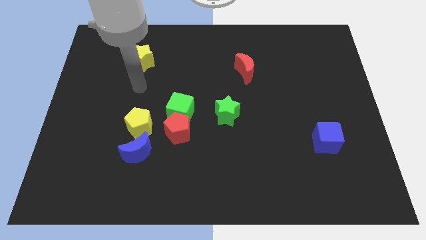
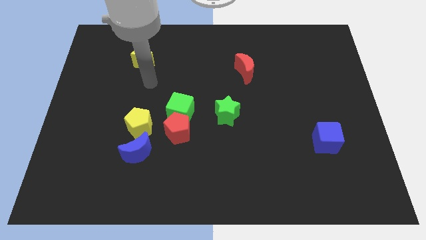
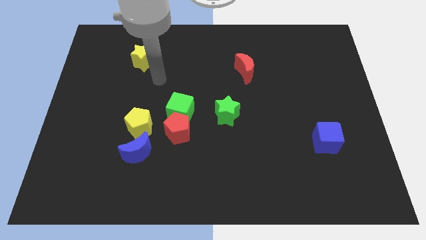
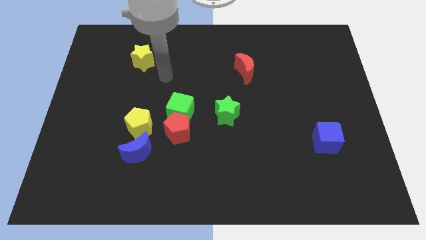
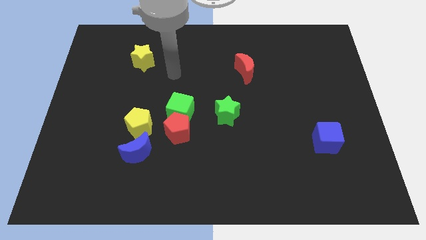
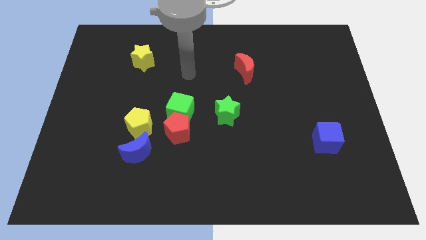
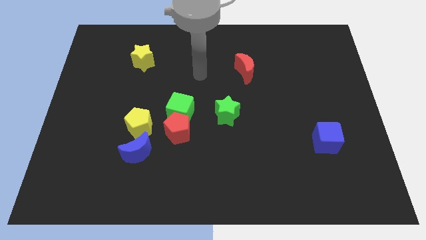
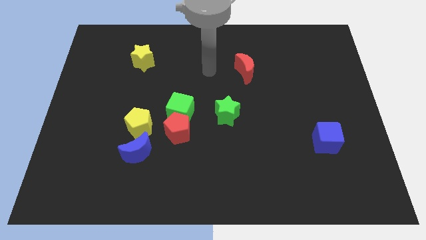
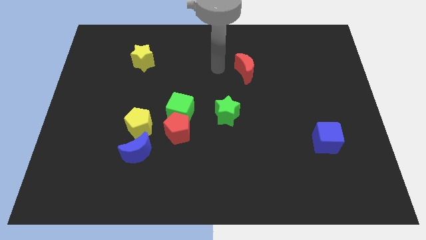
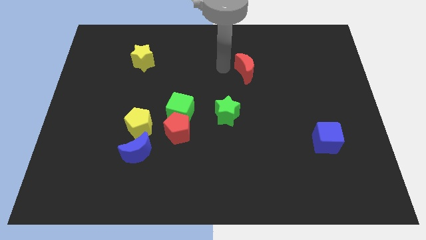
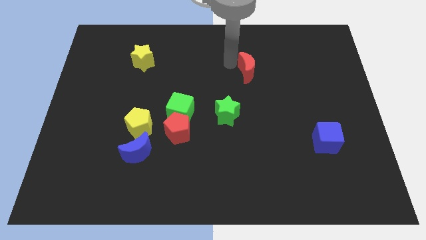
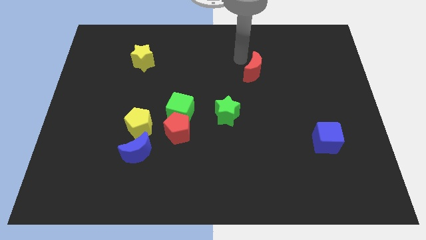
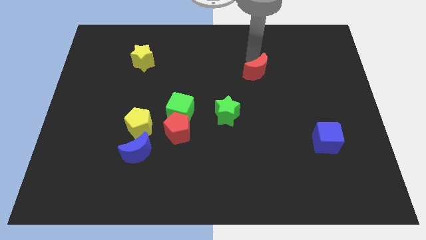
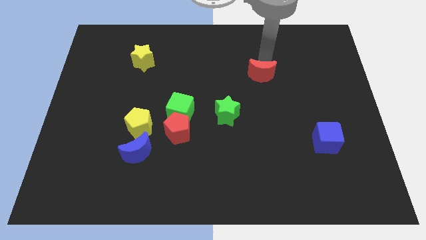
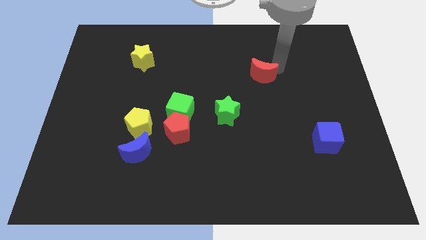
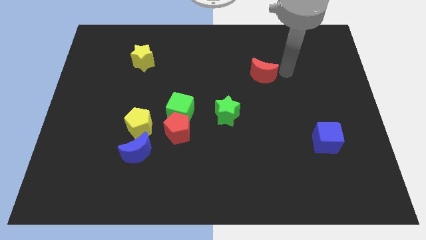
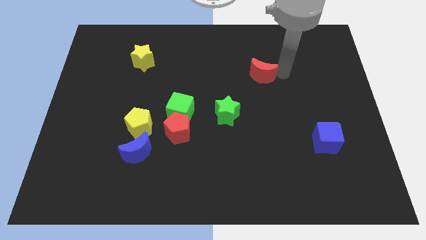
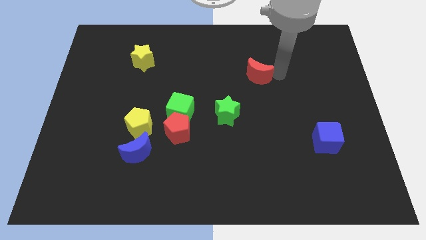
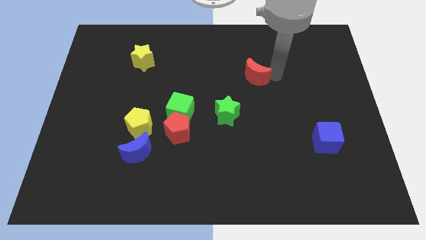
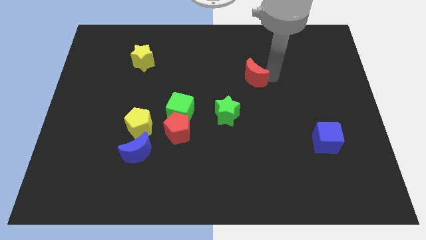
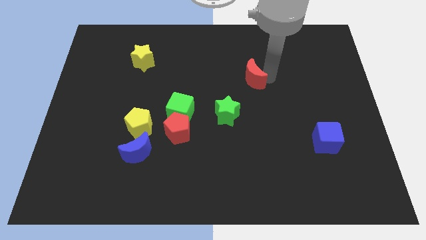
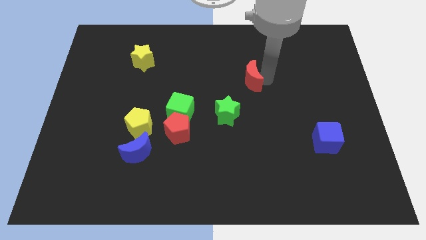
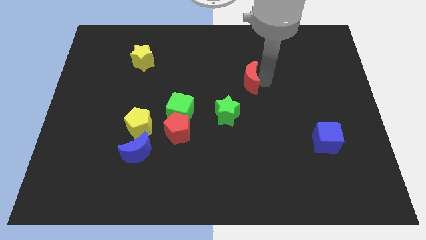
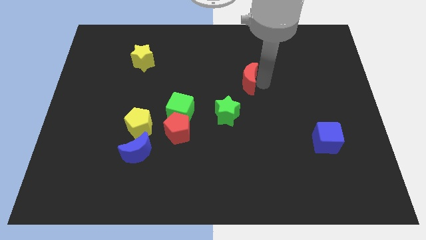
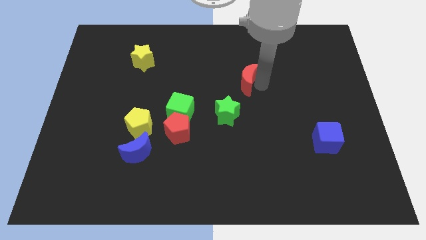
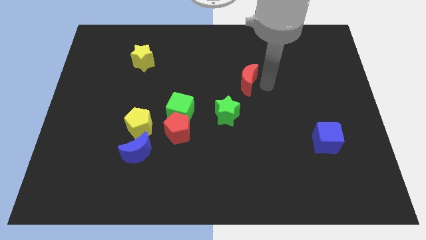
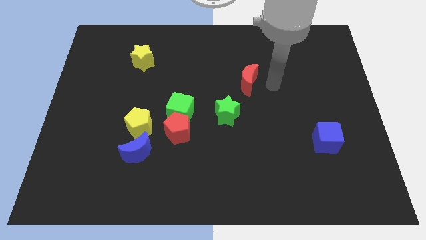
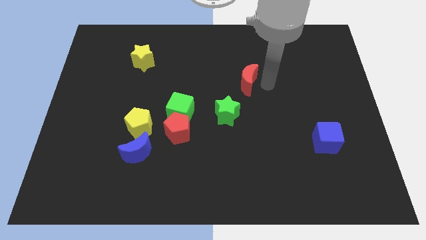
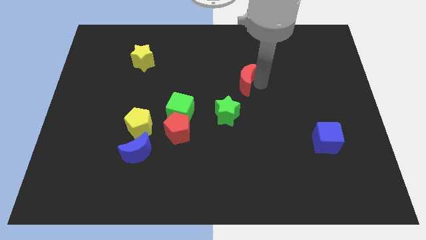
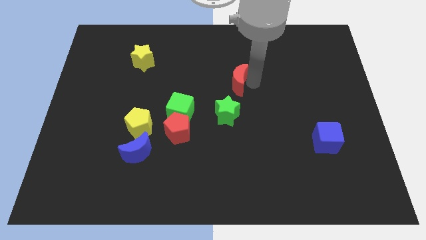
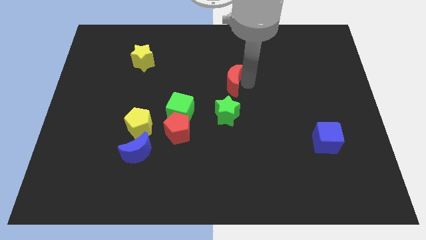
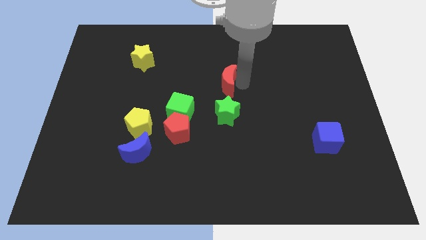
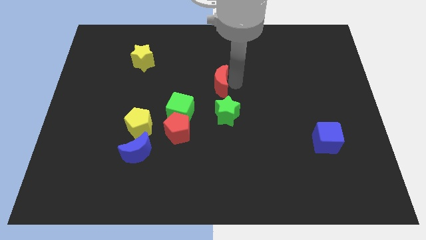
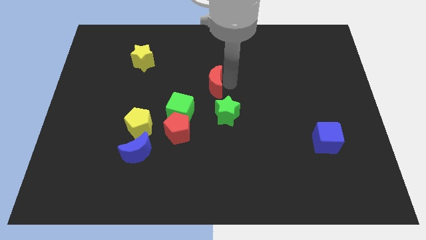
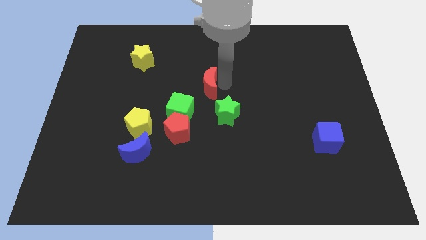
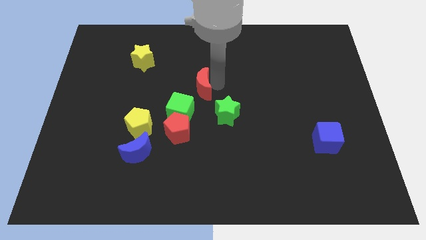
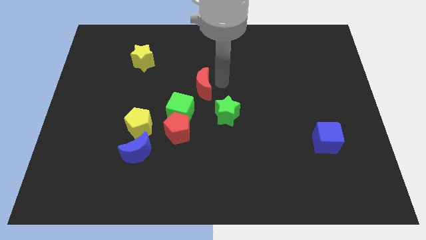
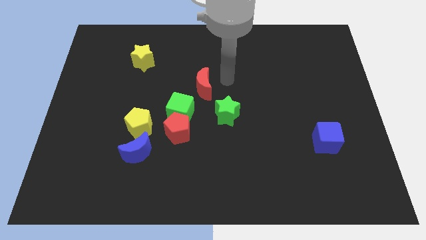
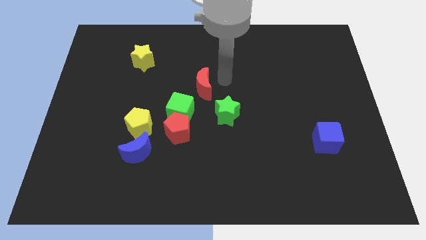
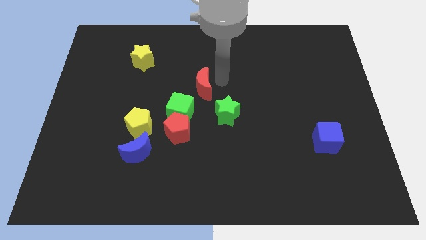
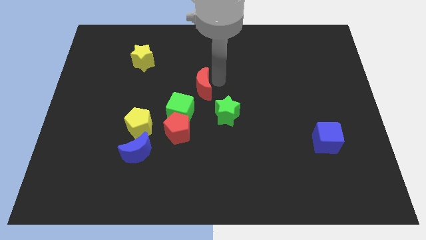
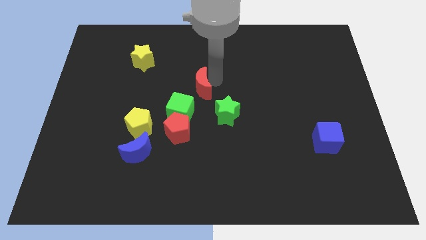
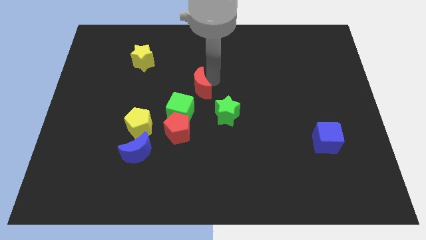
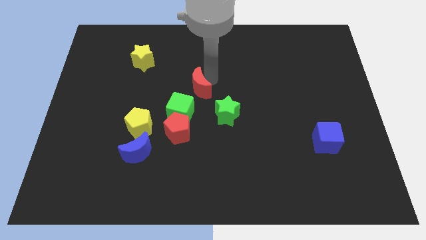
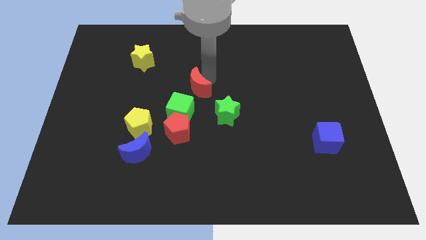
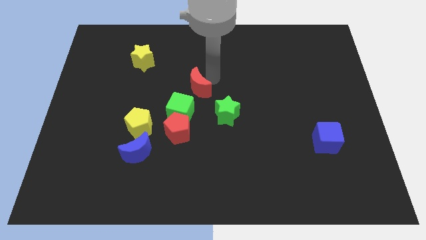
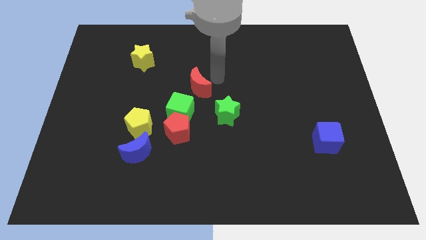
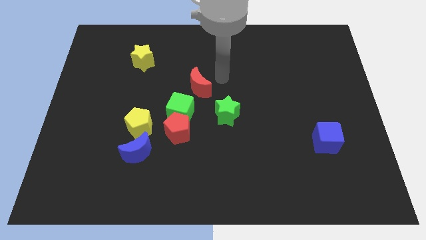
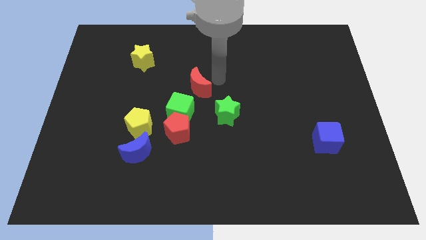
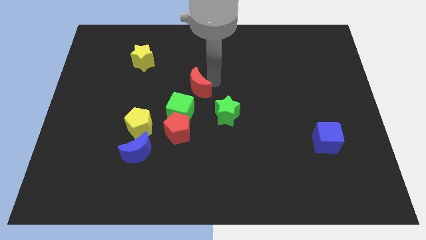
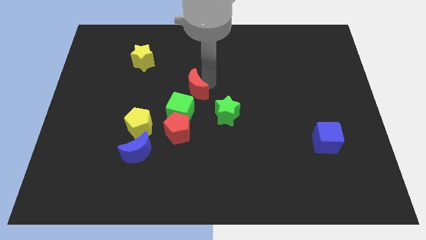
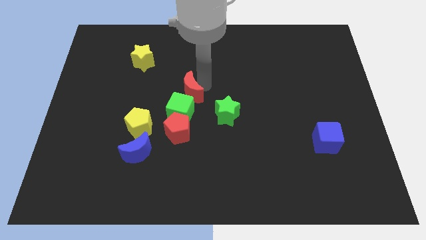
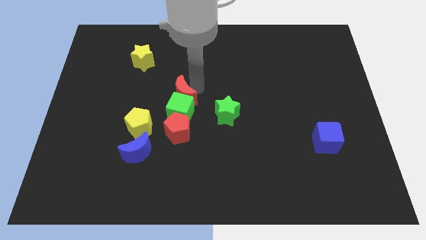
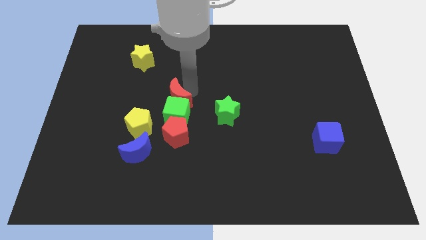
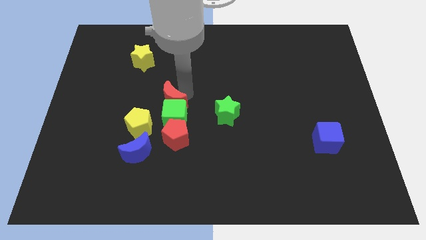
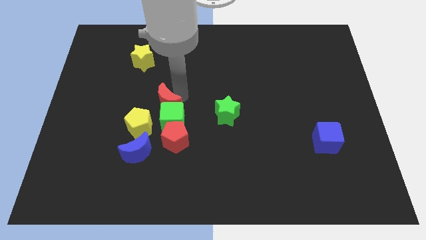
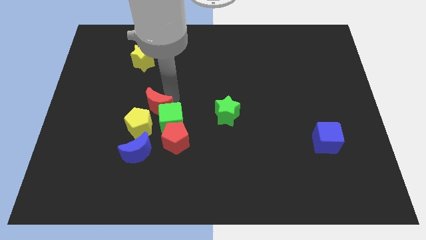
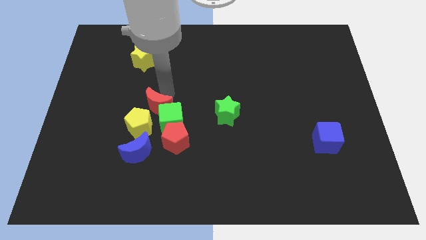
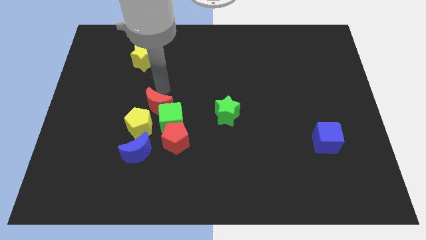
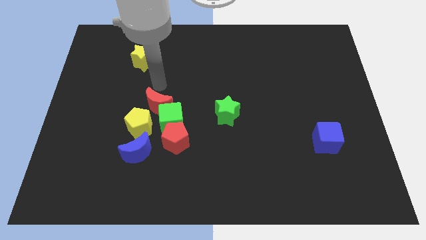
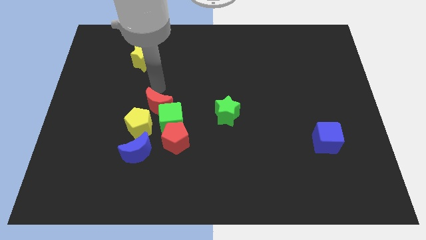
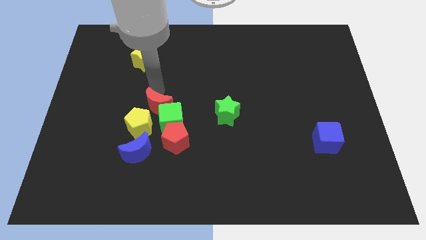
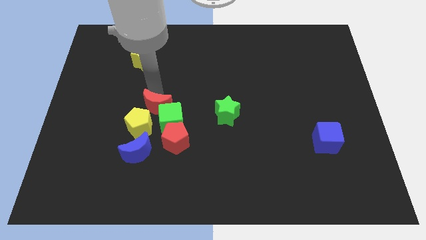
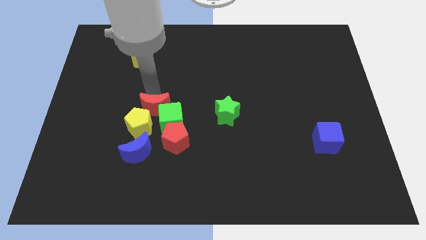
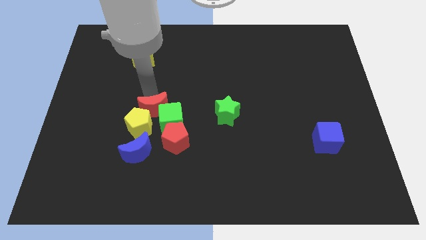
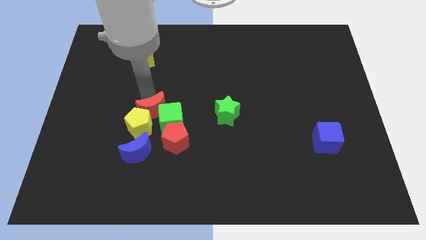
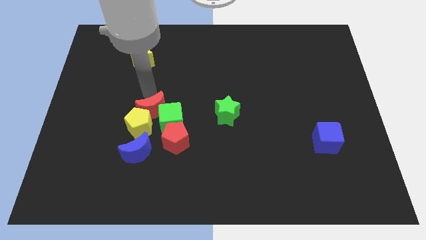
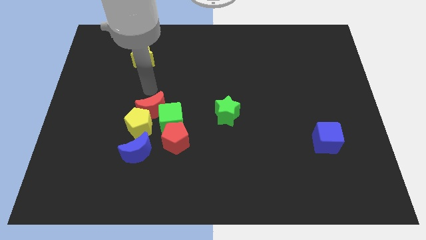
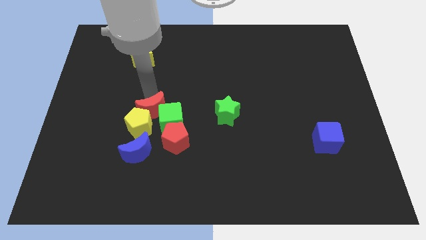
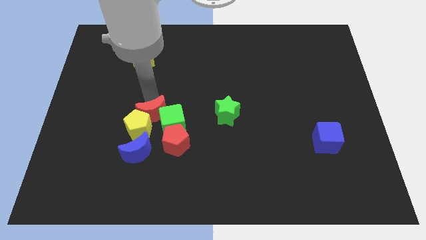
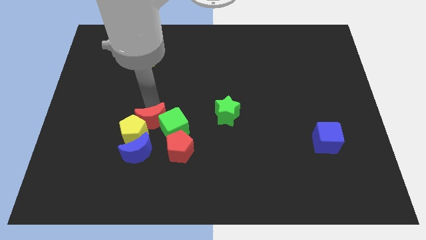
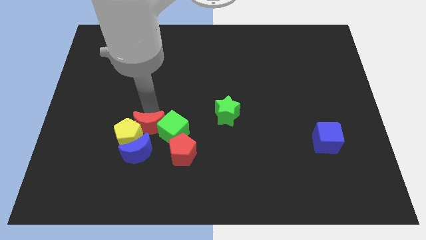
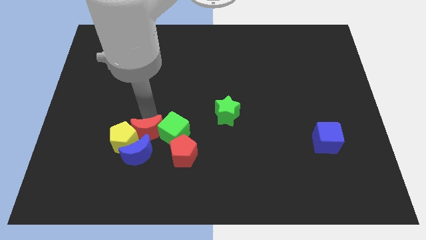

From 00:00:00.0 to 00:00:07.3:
move the red moon towards the blue moon
